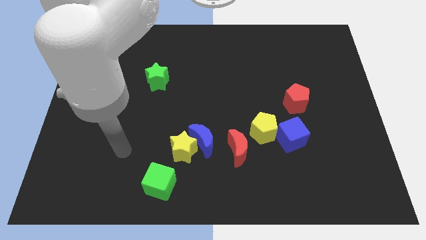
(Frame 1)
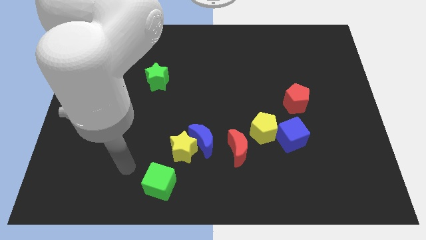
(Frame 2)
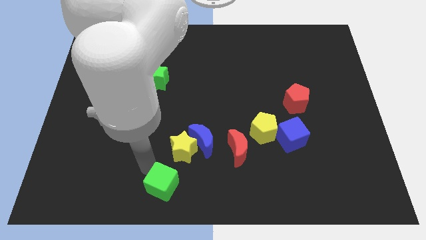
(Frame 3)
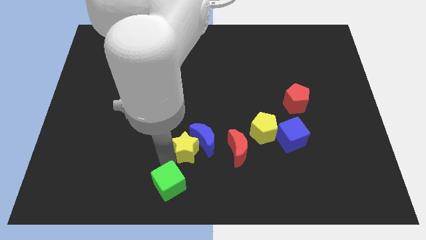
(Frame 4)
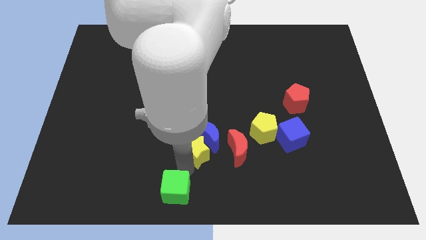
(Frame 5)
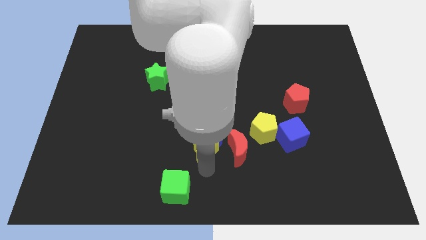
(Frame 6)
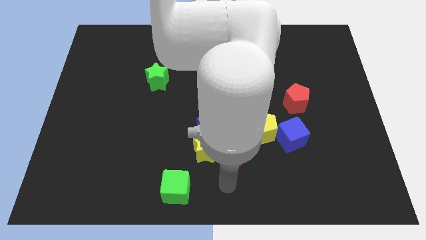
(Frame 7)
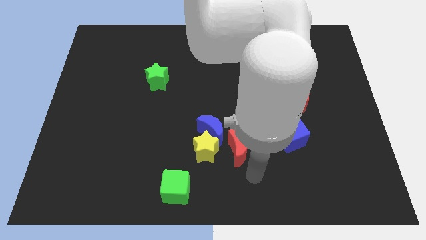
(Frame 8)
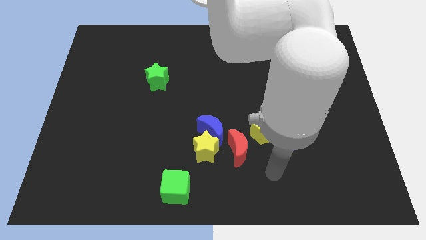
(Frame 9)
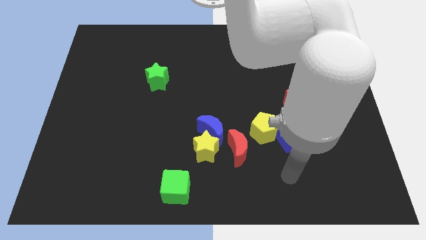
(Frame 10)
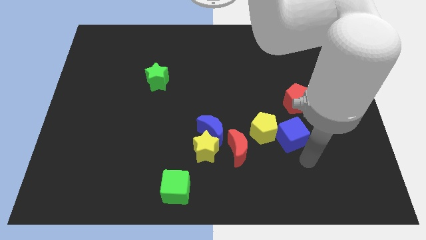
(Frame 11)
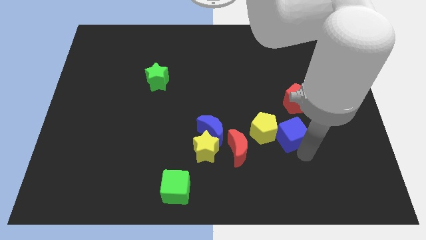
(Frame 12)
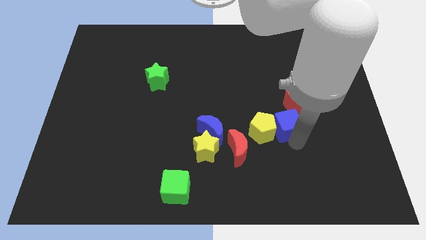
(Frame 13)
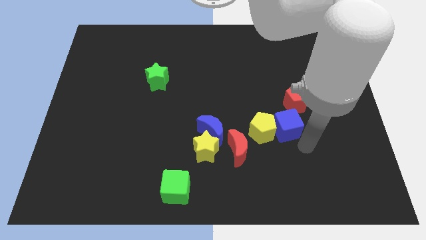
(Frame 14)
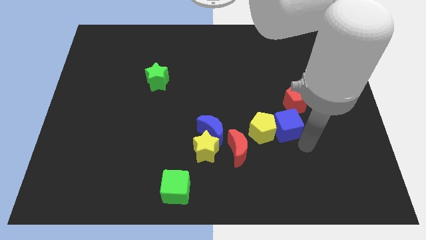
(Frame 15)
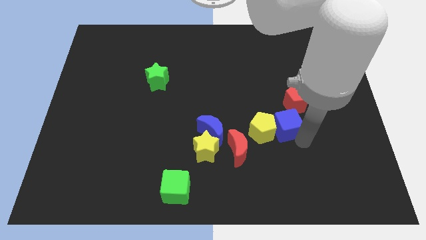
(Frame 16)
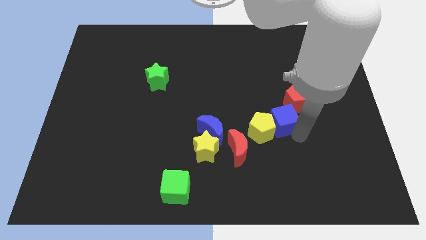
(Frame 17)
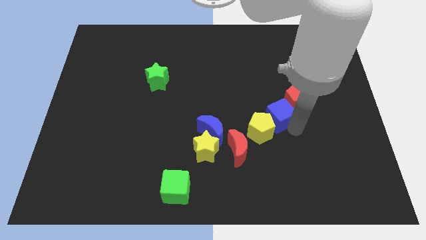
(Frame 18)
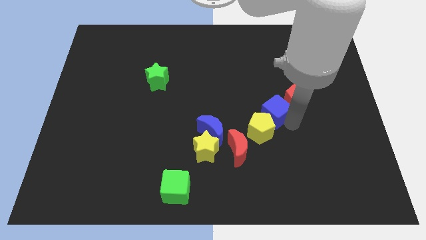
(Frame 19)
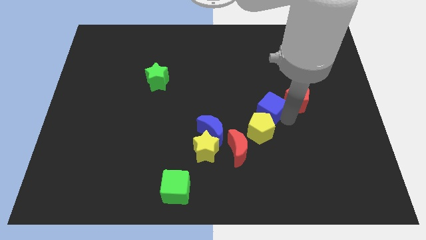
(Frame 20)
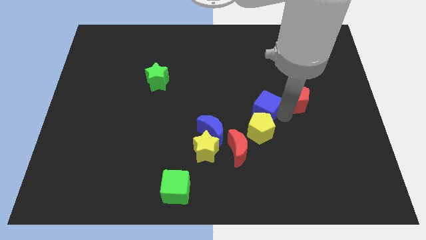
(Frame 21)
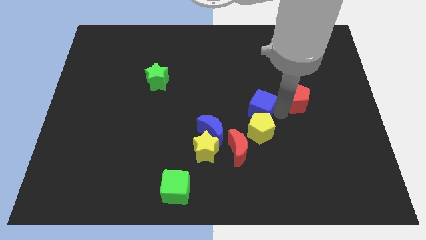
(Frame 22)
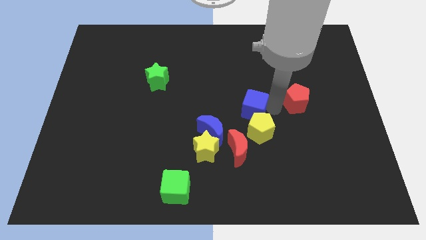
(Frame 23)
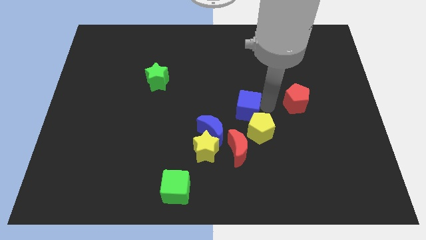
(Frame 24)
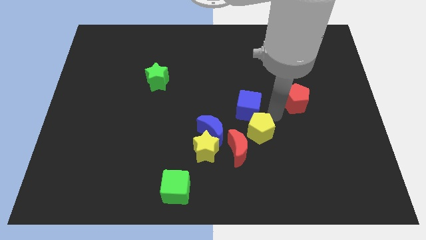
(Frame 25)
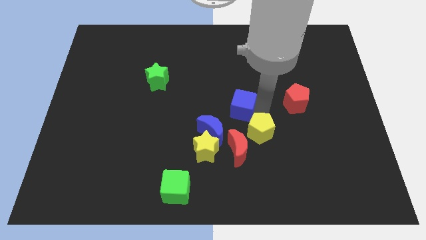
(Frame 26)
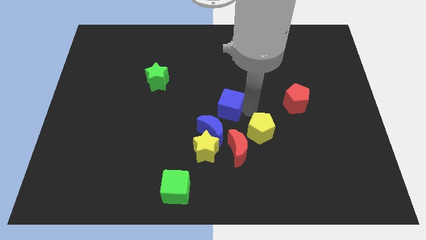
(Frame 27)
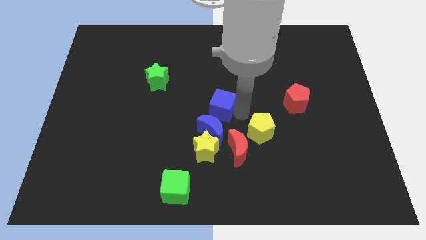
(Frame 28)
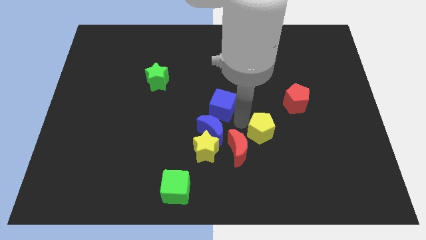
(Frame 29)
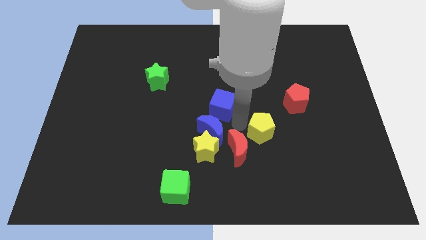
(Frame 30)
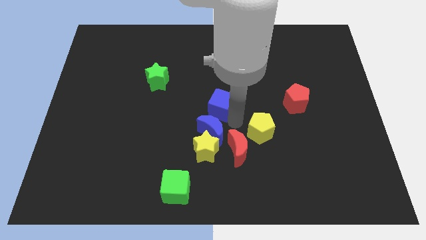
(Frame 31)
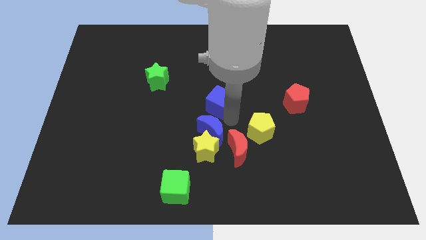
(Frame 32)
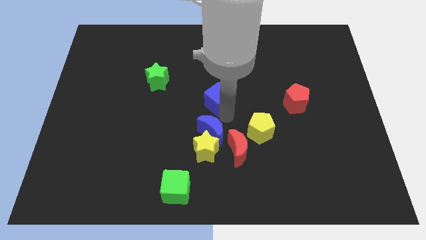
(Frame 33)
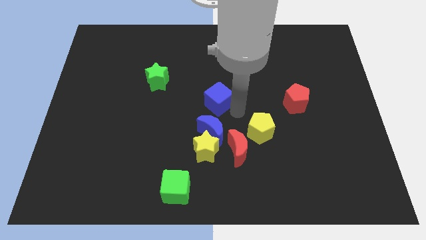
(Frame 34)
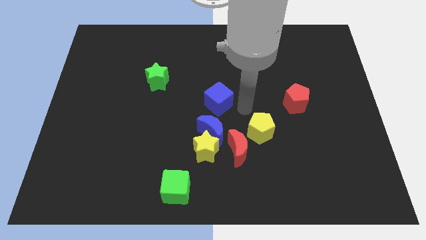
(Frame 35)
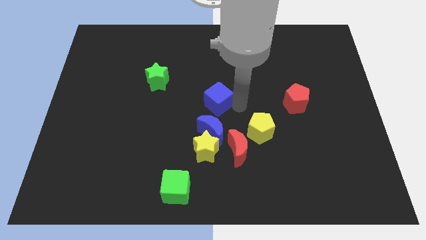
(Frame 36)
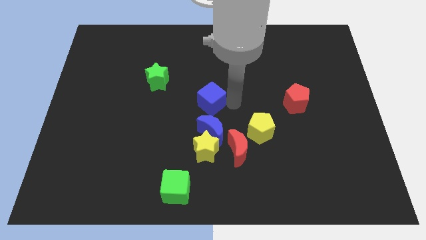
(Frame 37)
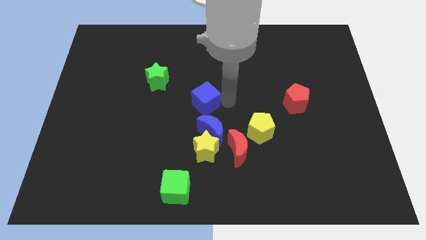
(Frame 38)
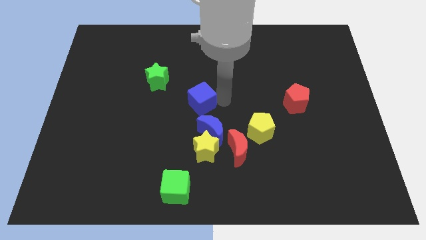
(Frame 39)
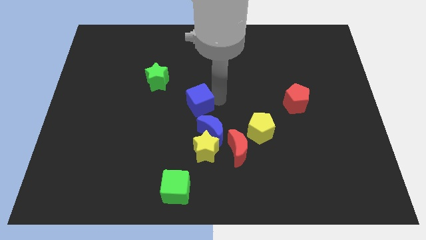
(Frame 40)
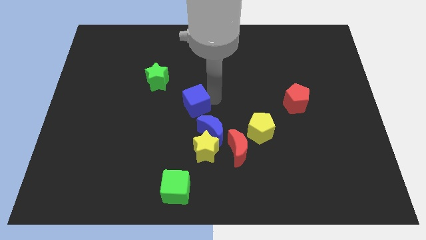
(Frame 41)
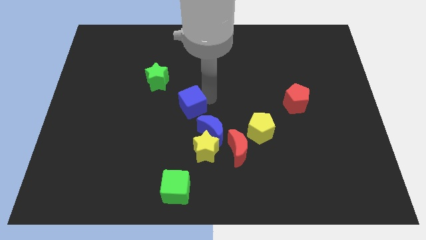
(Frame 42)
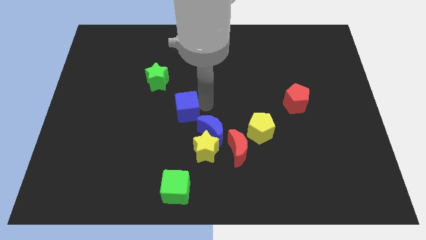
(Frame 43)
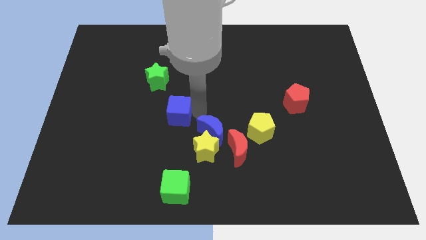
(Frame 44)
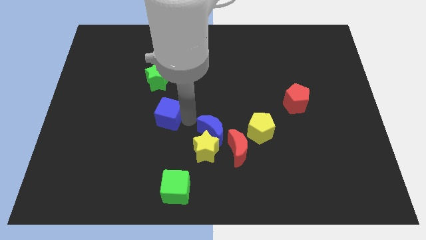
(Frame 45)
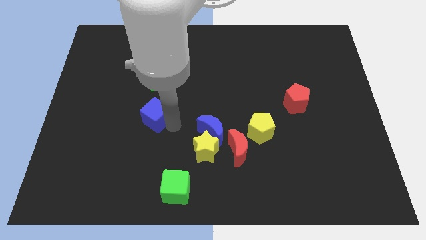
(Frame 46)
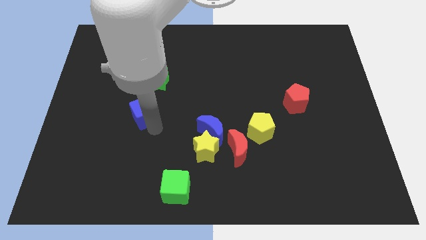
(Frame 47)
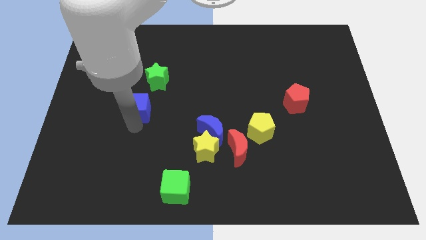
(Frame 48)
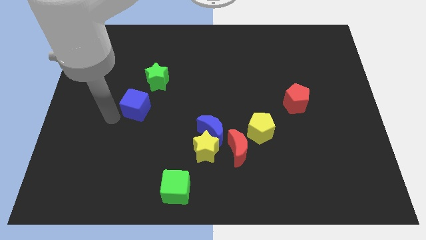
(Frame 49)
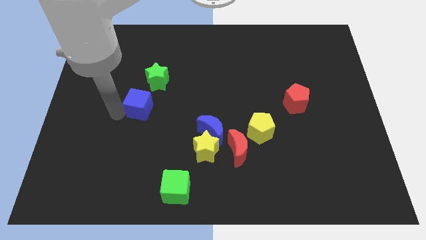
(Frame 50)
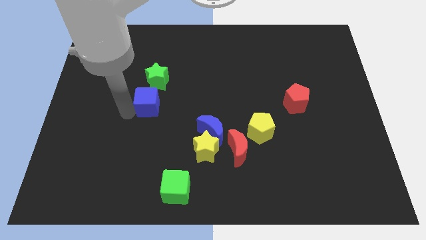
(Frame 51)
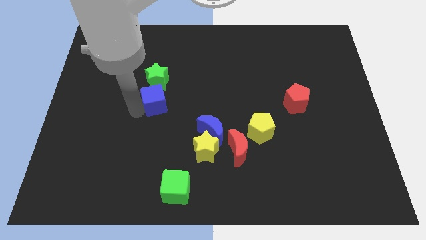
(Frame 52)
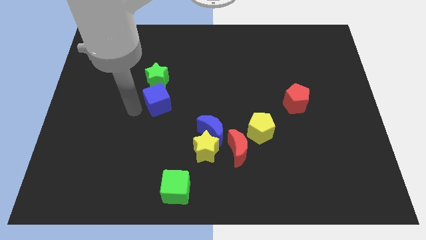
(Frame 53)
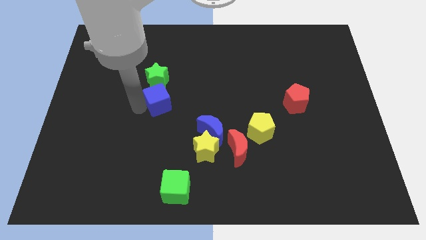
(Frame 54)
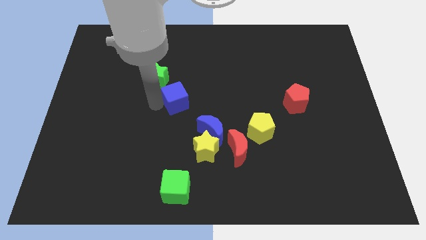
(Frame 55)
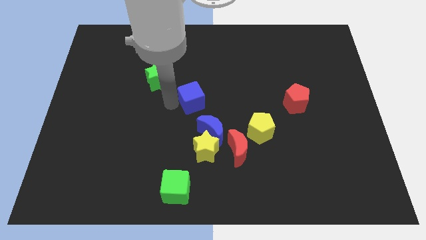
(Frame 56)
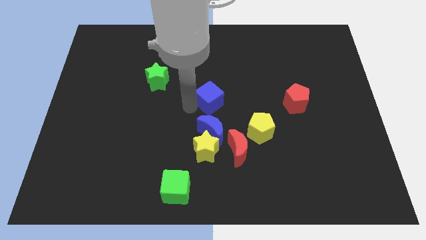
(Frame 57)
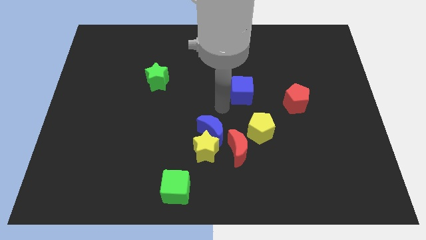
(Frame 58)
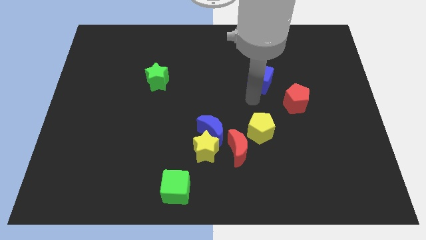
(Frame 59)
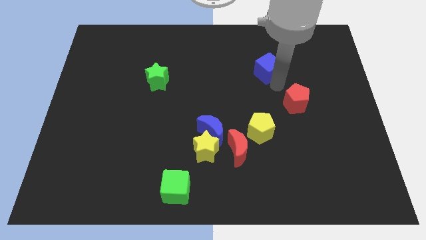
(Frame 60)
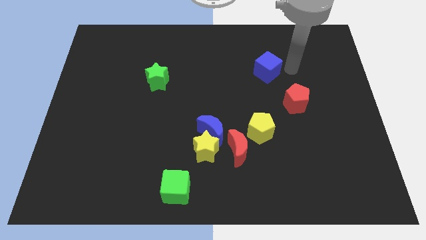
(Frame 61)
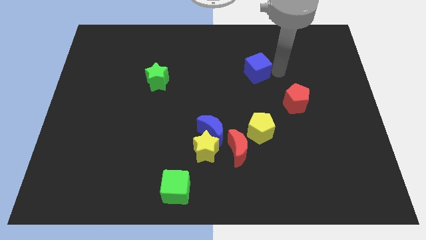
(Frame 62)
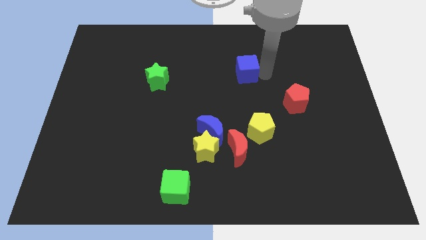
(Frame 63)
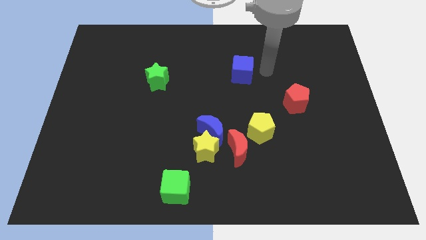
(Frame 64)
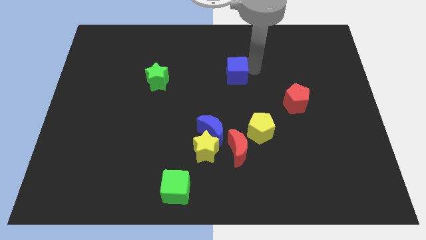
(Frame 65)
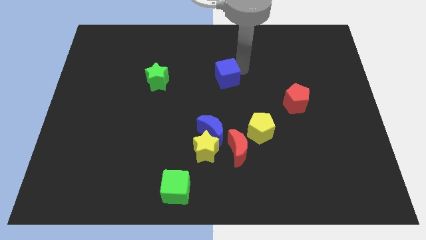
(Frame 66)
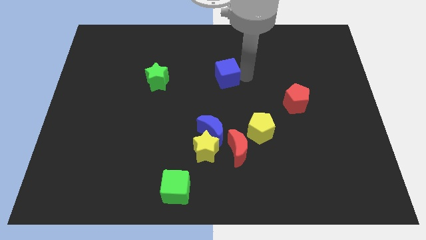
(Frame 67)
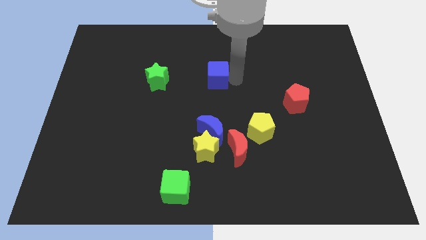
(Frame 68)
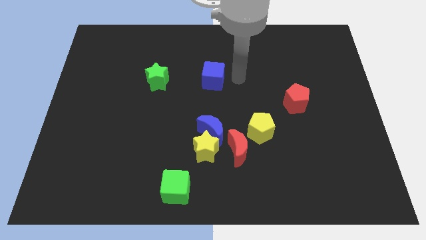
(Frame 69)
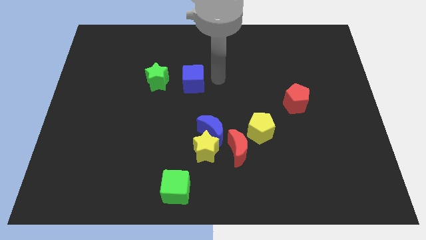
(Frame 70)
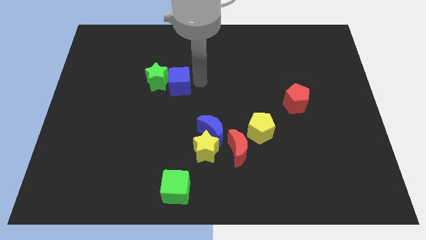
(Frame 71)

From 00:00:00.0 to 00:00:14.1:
slide the blue cube to the green star
